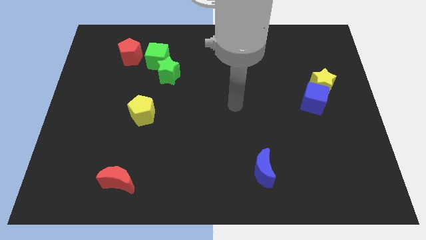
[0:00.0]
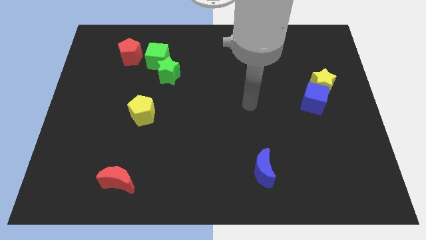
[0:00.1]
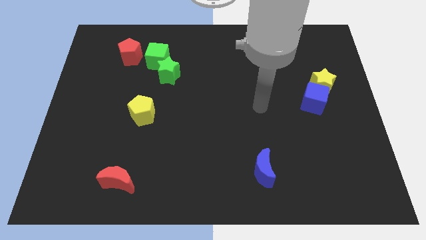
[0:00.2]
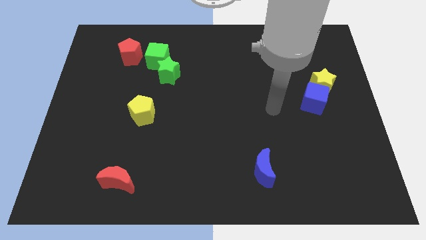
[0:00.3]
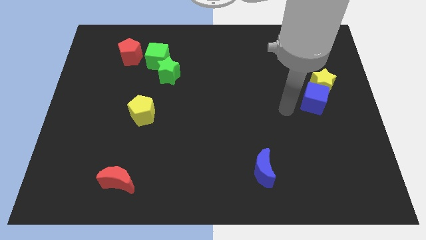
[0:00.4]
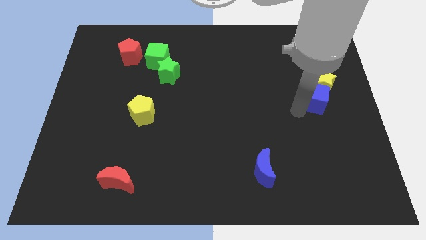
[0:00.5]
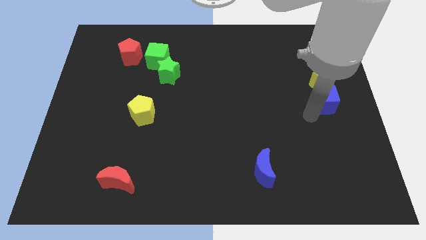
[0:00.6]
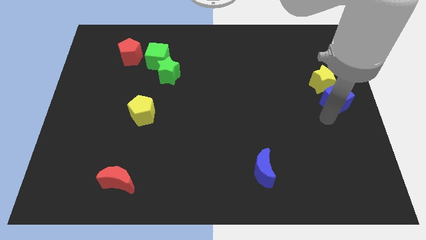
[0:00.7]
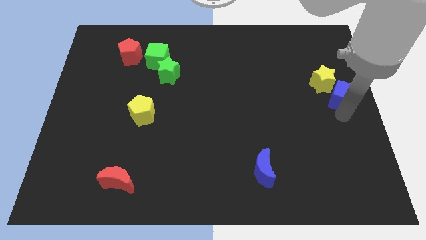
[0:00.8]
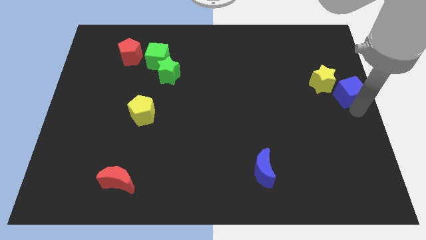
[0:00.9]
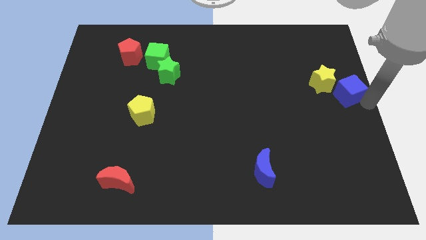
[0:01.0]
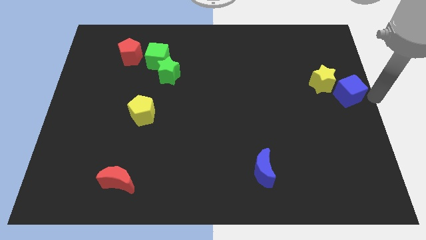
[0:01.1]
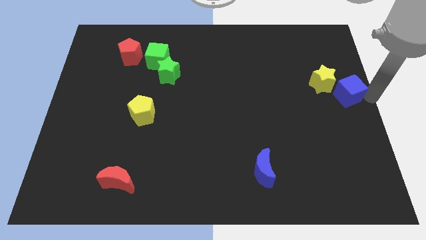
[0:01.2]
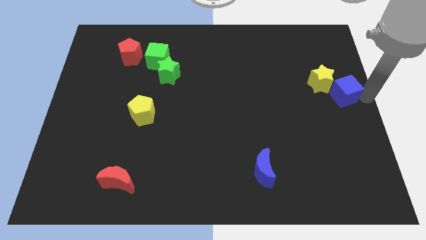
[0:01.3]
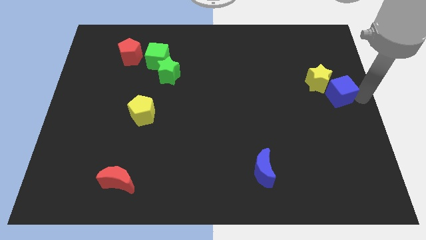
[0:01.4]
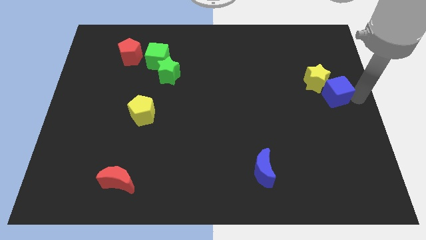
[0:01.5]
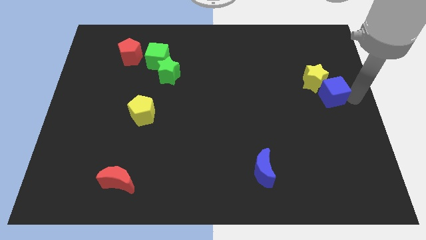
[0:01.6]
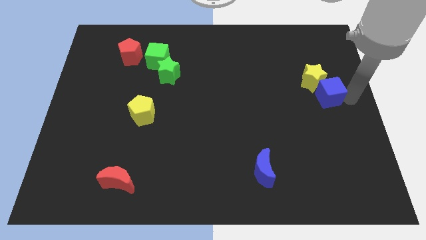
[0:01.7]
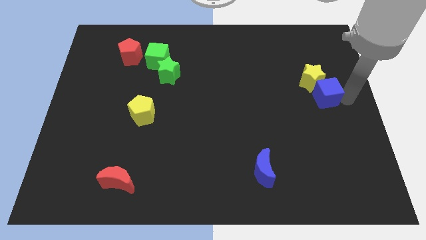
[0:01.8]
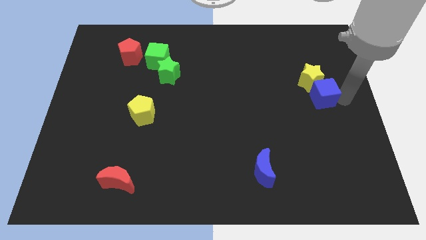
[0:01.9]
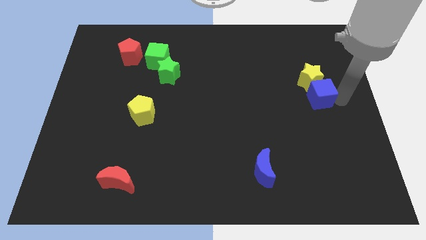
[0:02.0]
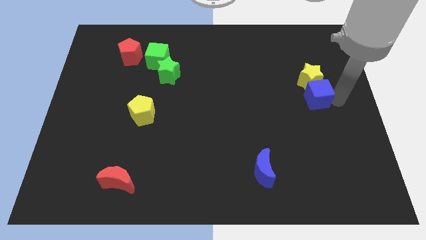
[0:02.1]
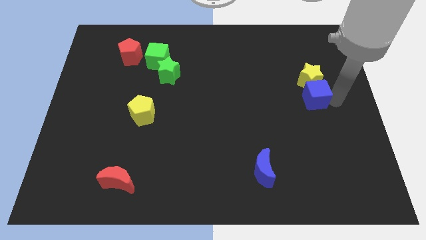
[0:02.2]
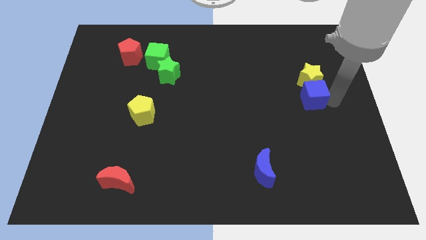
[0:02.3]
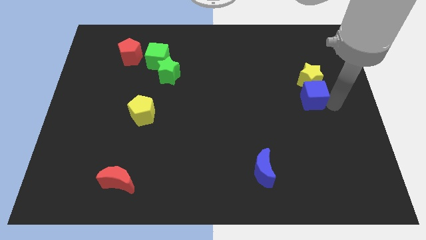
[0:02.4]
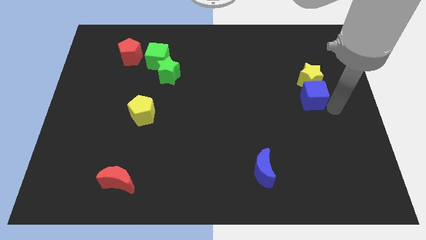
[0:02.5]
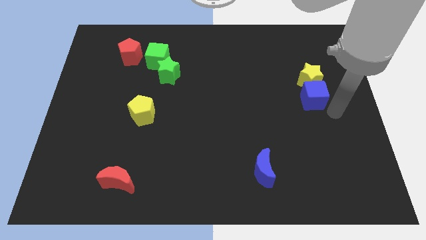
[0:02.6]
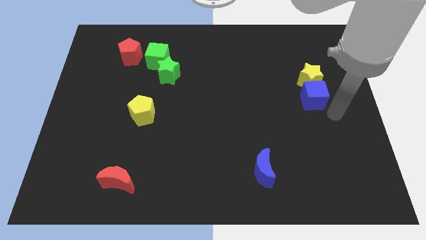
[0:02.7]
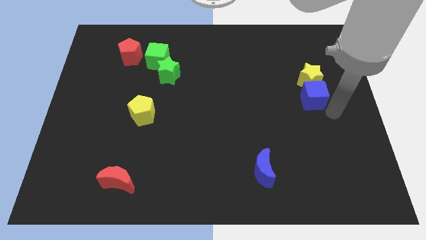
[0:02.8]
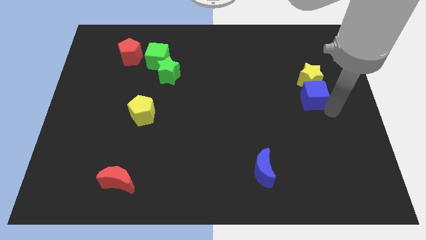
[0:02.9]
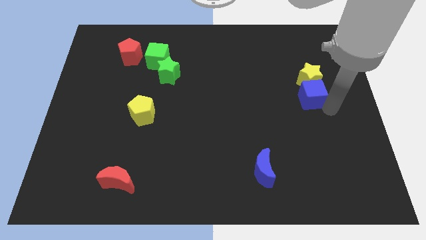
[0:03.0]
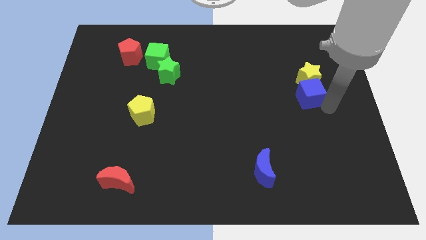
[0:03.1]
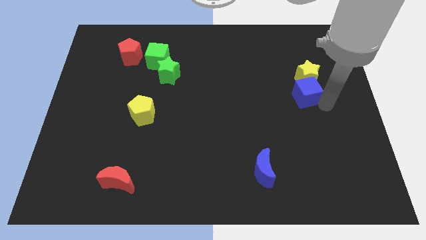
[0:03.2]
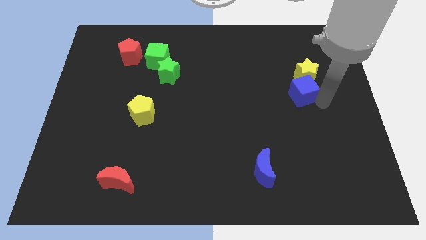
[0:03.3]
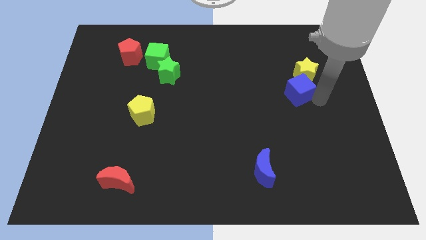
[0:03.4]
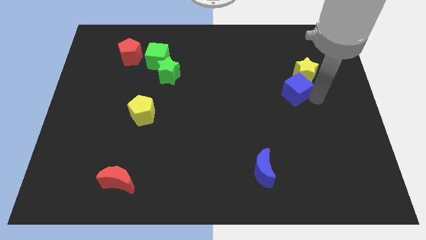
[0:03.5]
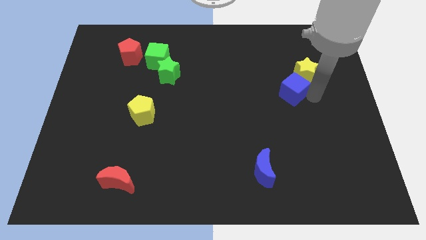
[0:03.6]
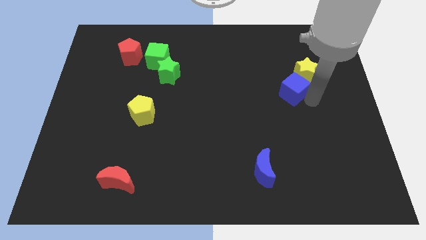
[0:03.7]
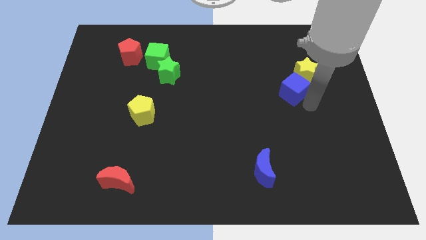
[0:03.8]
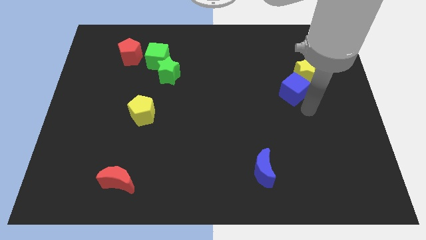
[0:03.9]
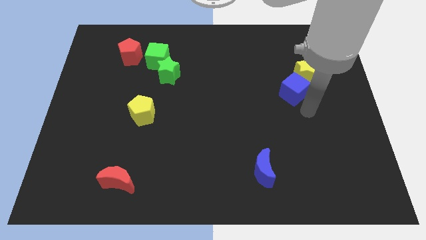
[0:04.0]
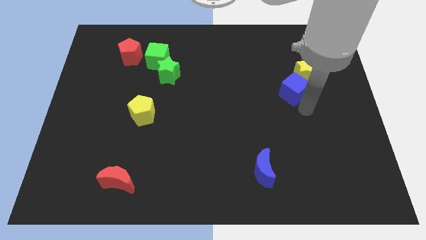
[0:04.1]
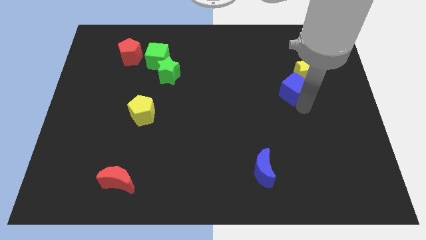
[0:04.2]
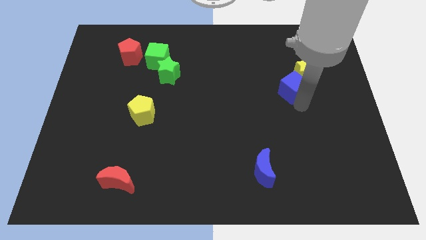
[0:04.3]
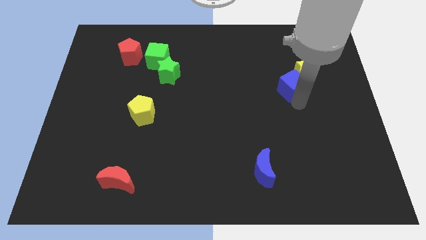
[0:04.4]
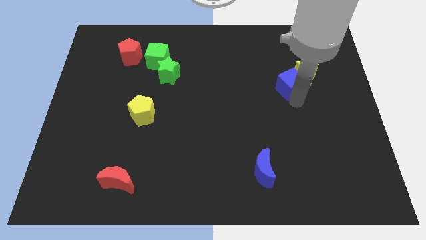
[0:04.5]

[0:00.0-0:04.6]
move the blue cube a little bit upwards and to the left diagonally

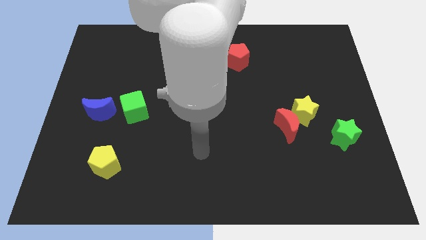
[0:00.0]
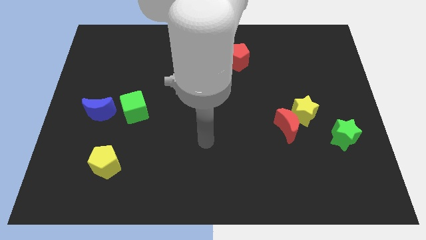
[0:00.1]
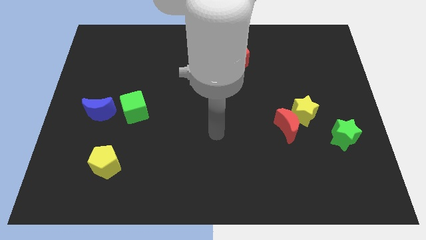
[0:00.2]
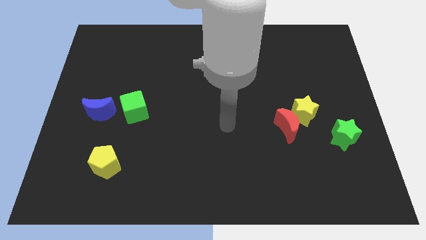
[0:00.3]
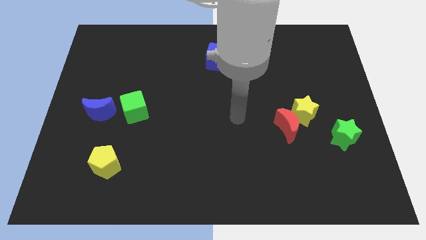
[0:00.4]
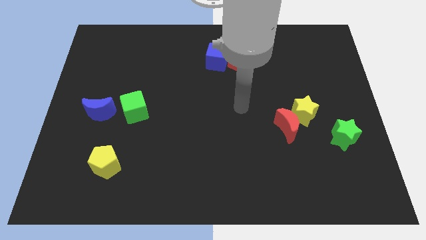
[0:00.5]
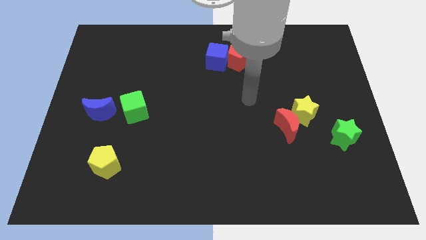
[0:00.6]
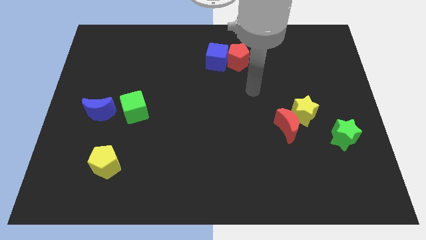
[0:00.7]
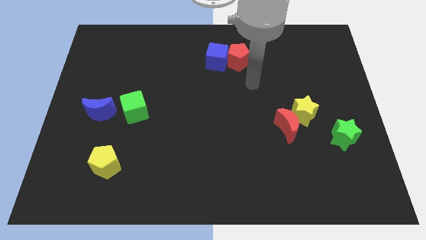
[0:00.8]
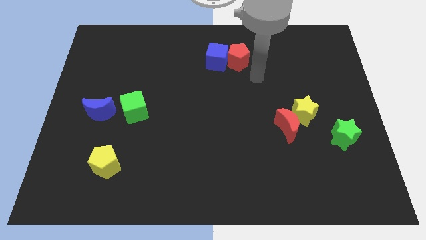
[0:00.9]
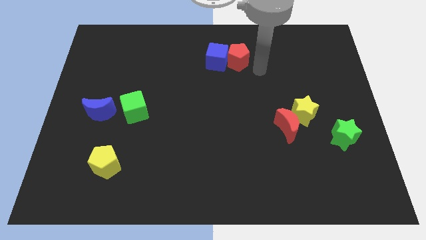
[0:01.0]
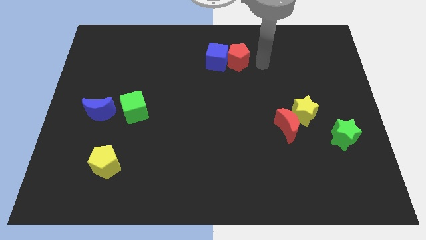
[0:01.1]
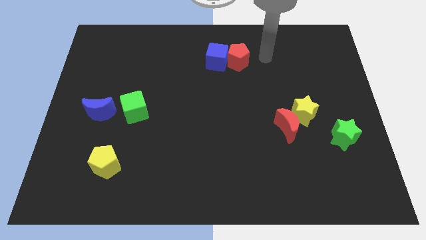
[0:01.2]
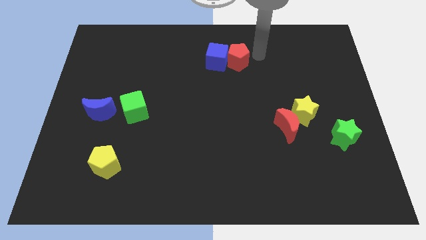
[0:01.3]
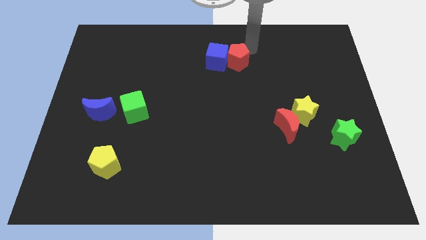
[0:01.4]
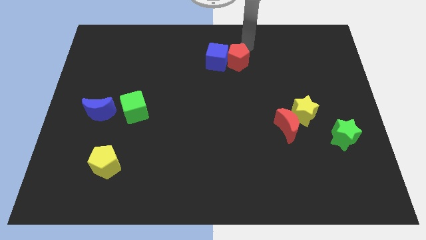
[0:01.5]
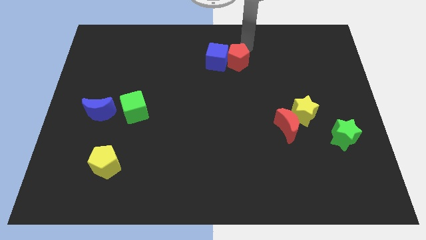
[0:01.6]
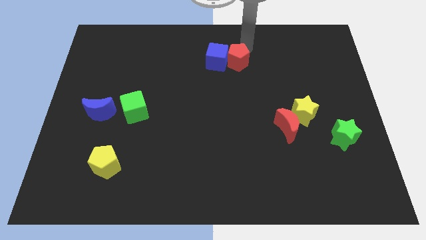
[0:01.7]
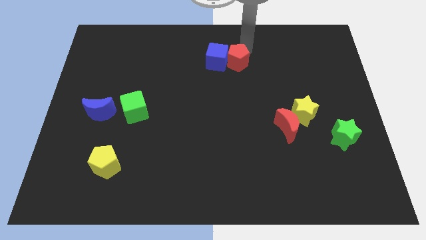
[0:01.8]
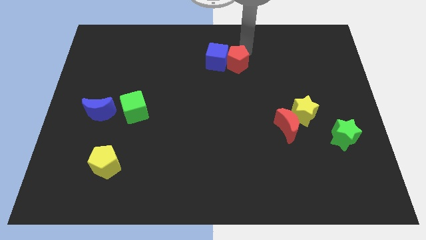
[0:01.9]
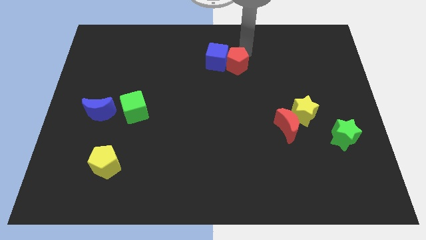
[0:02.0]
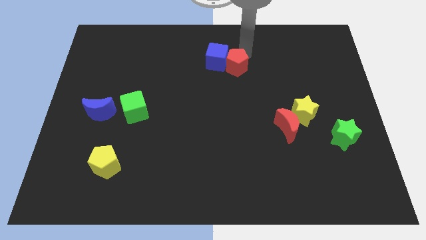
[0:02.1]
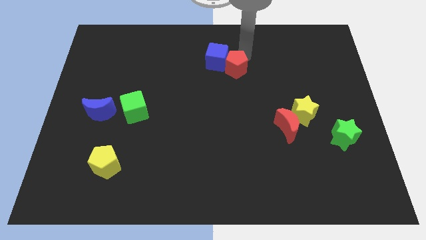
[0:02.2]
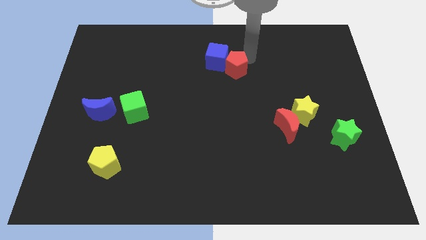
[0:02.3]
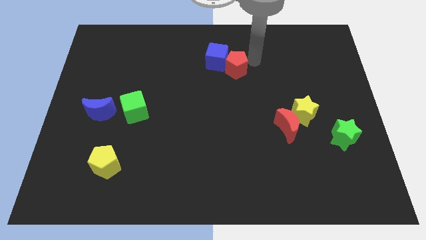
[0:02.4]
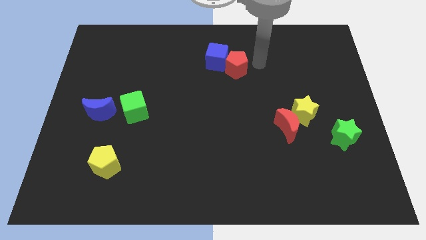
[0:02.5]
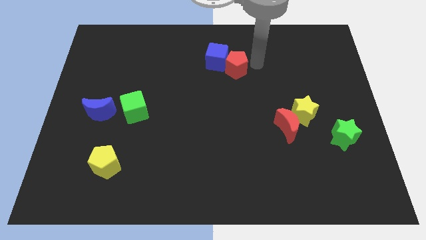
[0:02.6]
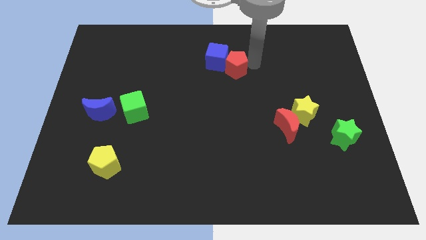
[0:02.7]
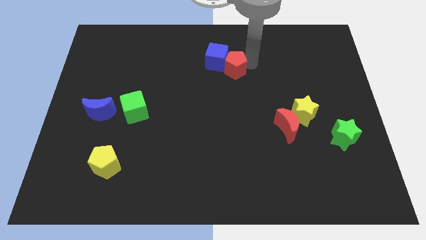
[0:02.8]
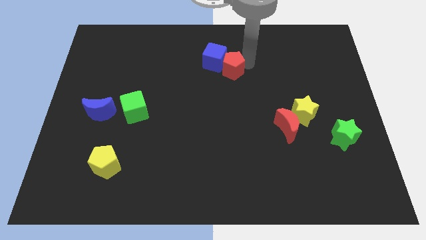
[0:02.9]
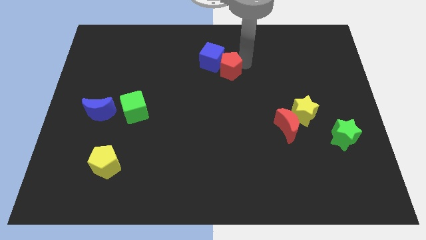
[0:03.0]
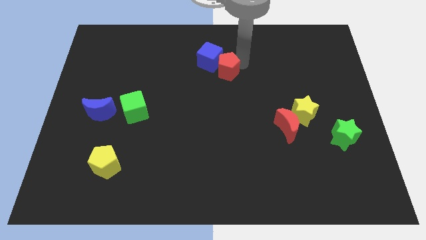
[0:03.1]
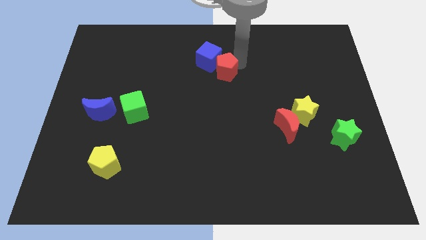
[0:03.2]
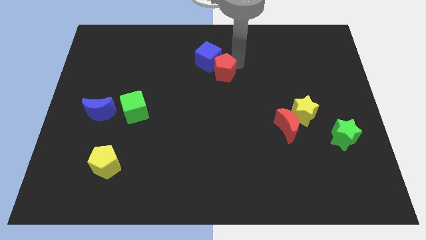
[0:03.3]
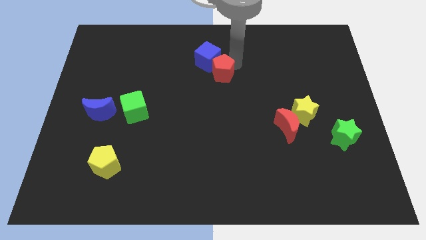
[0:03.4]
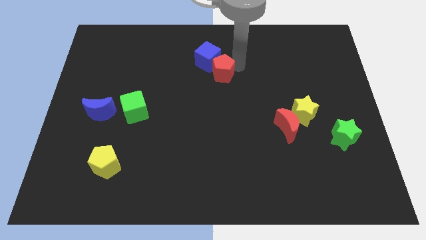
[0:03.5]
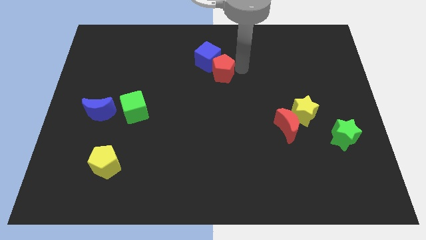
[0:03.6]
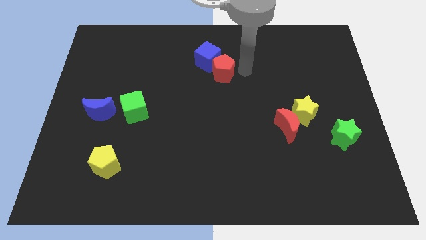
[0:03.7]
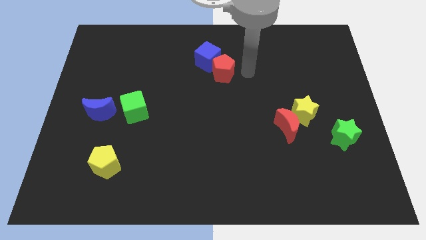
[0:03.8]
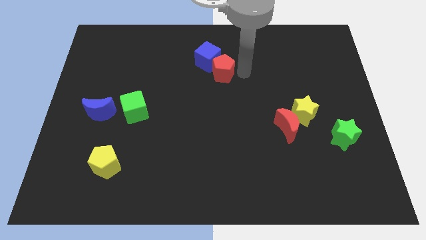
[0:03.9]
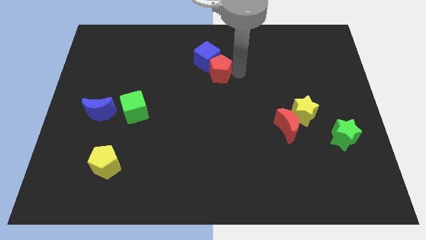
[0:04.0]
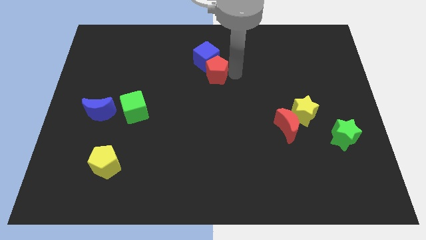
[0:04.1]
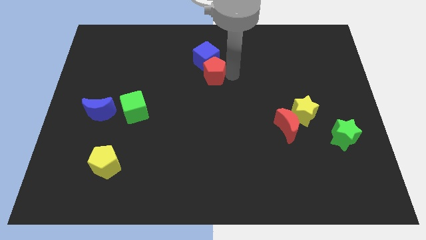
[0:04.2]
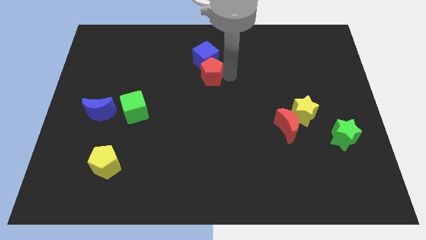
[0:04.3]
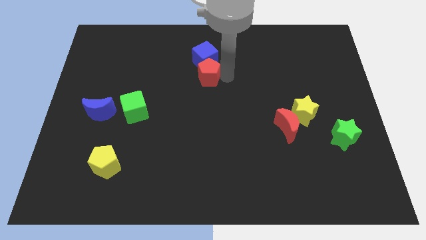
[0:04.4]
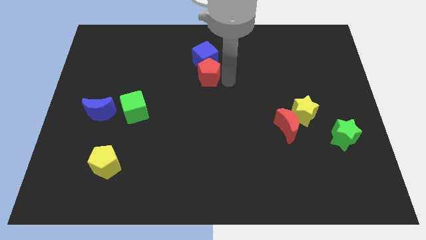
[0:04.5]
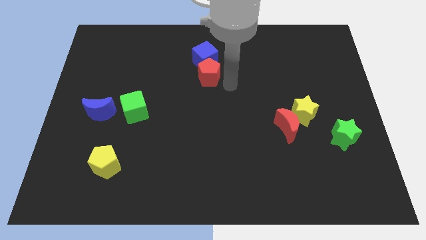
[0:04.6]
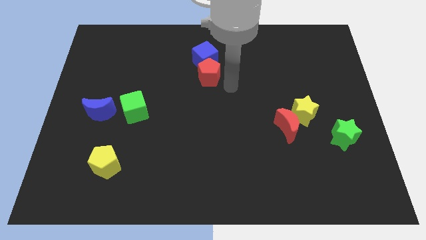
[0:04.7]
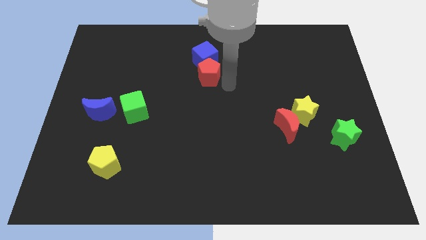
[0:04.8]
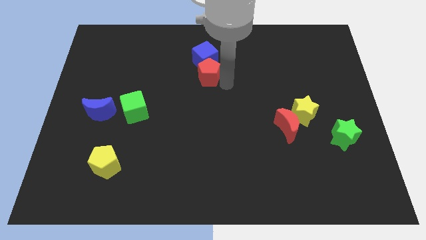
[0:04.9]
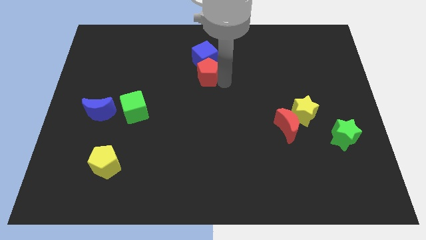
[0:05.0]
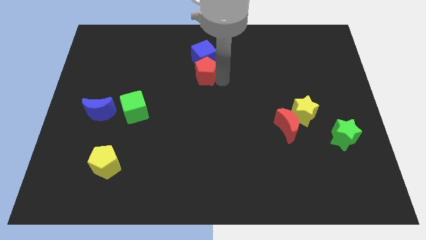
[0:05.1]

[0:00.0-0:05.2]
slightly slide the red pentagon left
